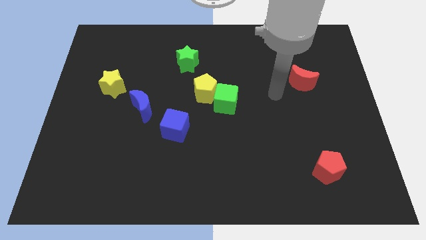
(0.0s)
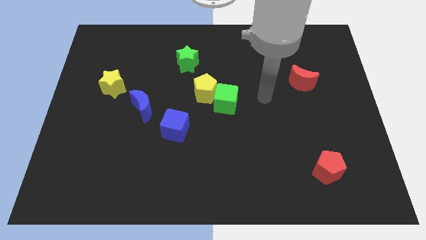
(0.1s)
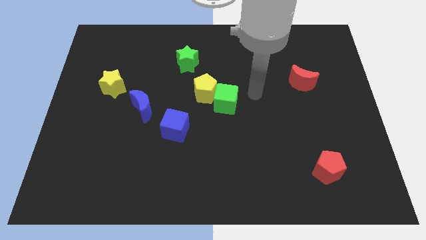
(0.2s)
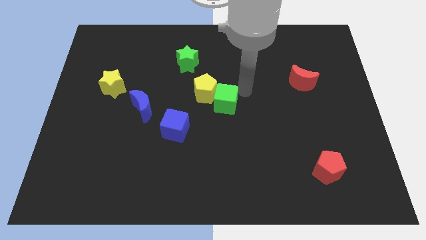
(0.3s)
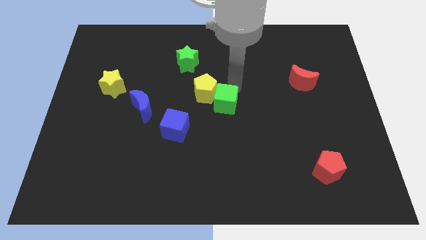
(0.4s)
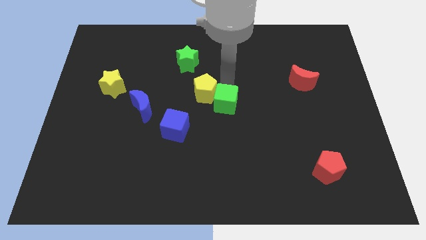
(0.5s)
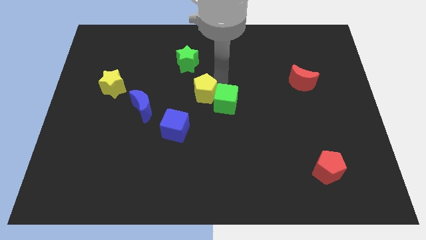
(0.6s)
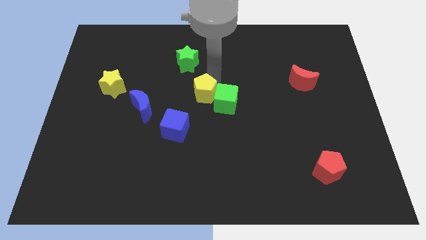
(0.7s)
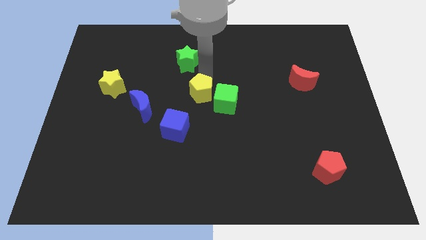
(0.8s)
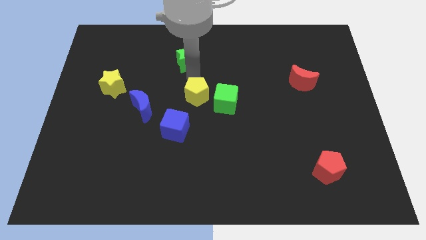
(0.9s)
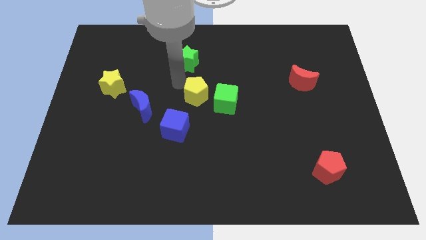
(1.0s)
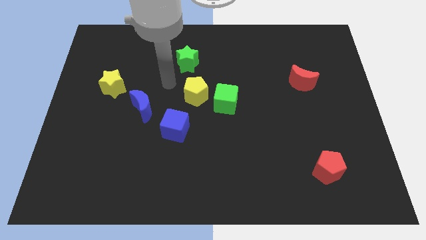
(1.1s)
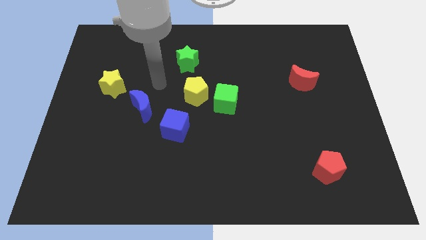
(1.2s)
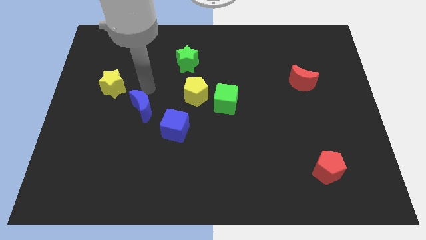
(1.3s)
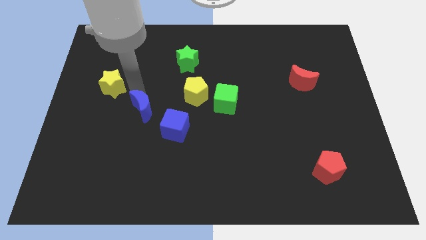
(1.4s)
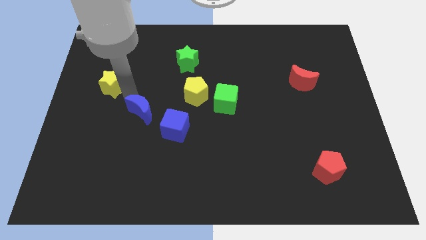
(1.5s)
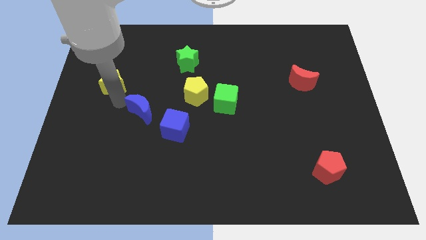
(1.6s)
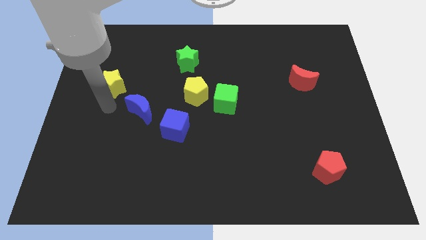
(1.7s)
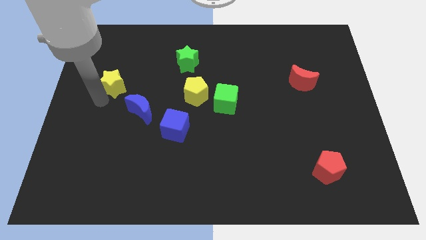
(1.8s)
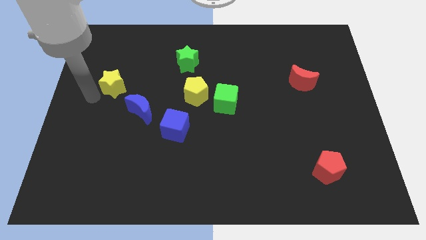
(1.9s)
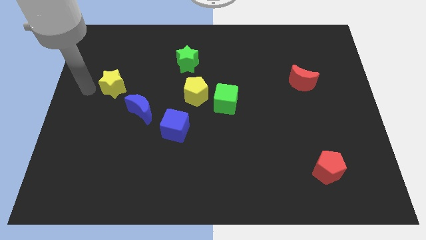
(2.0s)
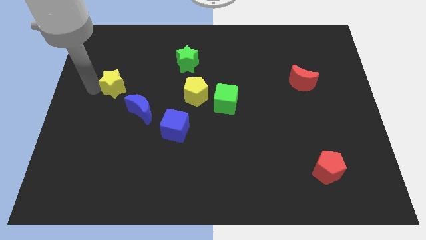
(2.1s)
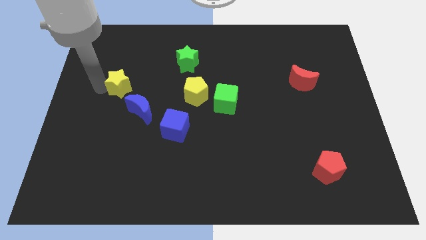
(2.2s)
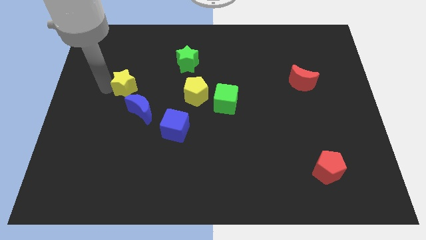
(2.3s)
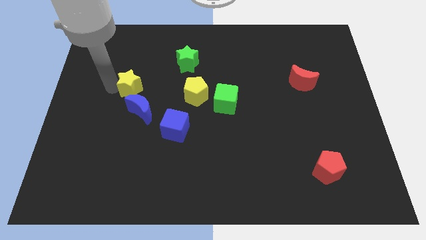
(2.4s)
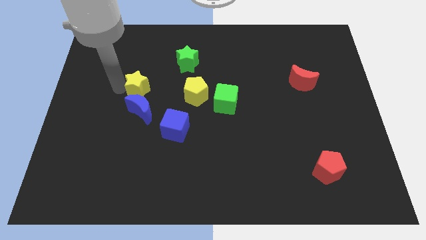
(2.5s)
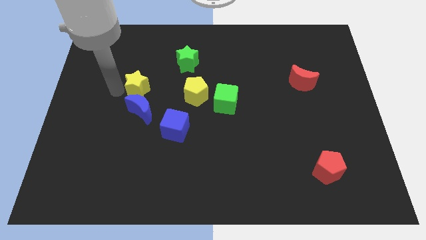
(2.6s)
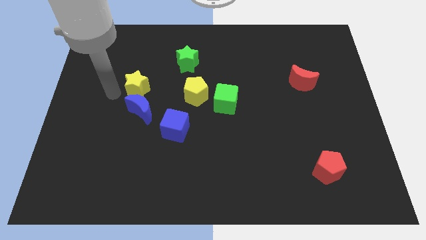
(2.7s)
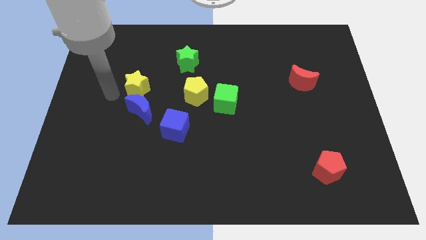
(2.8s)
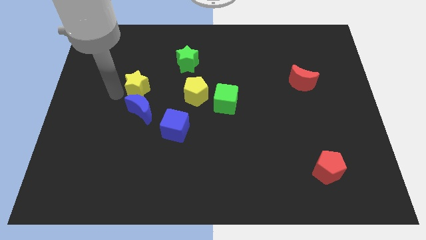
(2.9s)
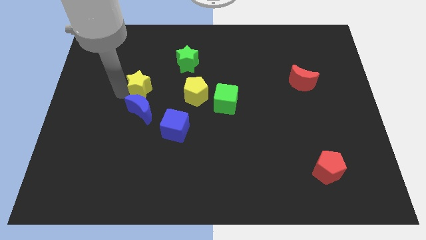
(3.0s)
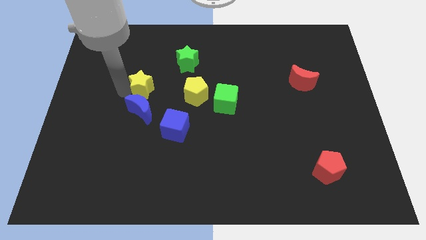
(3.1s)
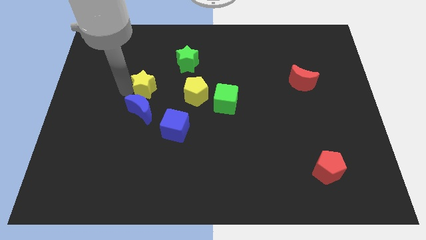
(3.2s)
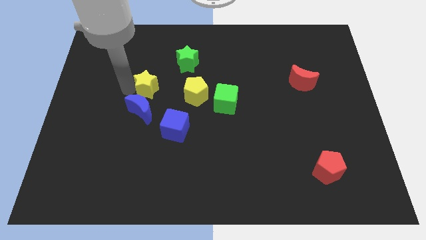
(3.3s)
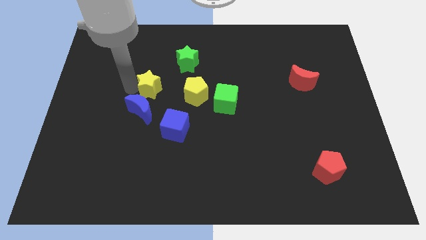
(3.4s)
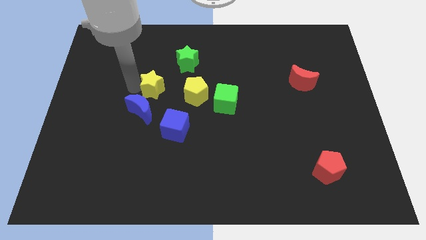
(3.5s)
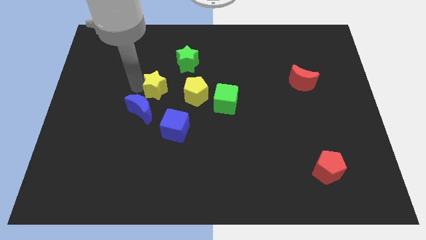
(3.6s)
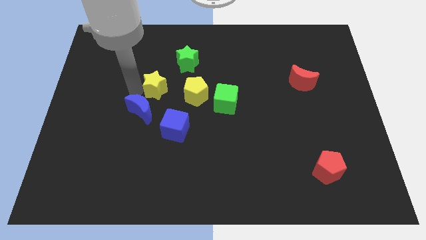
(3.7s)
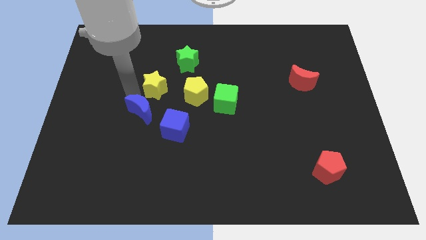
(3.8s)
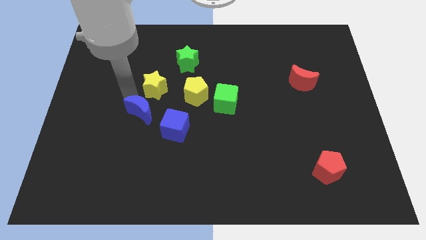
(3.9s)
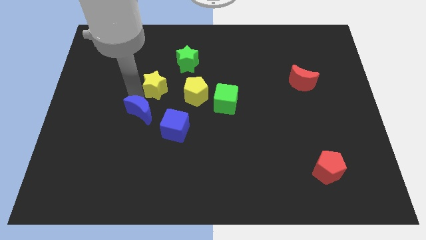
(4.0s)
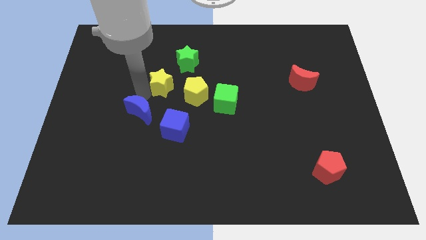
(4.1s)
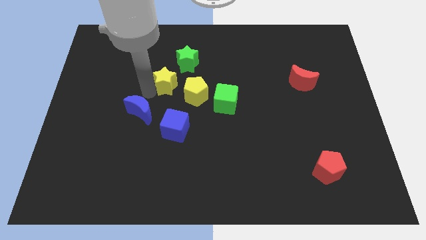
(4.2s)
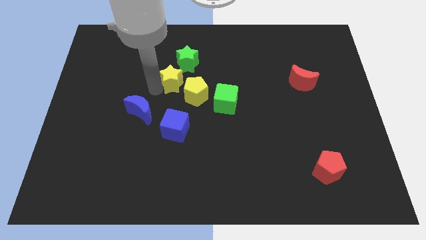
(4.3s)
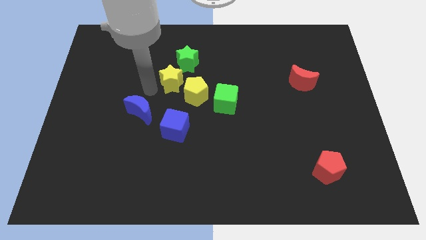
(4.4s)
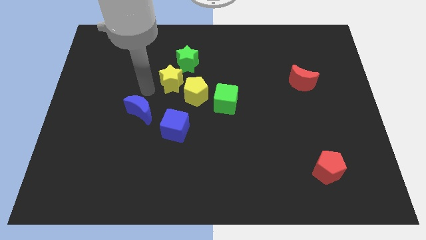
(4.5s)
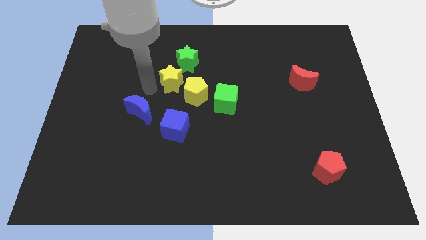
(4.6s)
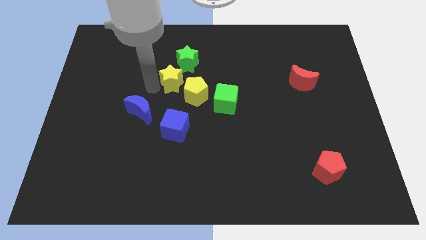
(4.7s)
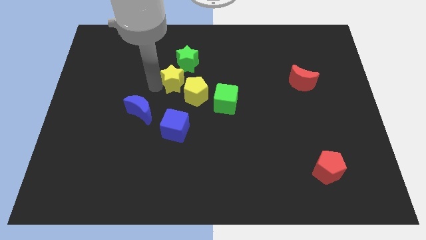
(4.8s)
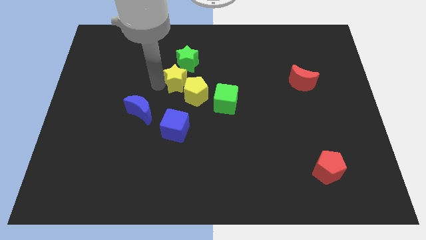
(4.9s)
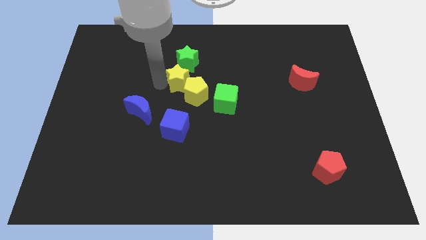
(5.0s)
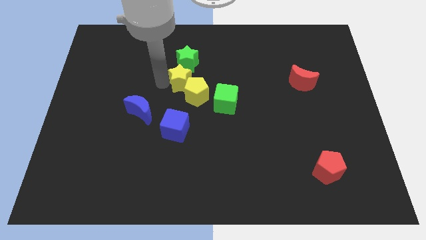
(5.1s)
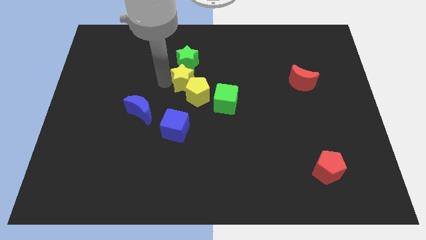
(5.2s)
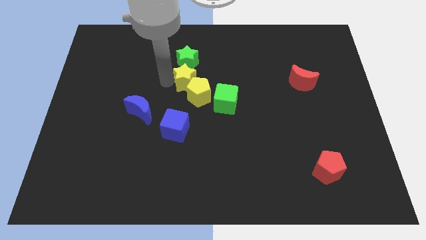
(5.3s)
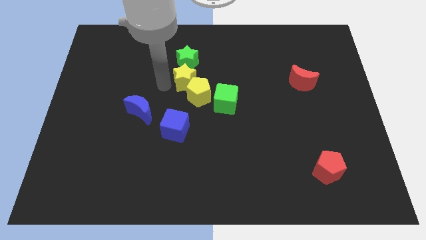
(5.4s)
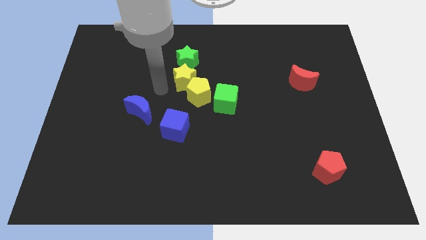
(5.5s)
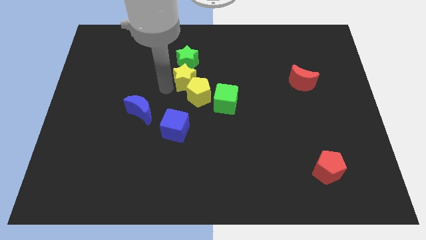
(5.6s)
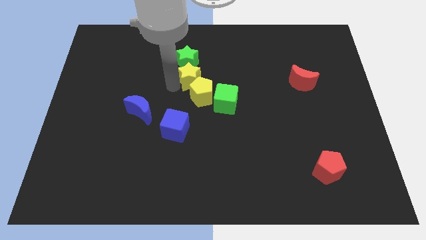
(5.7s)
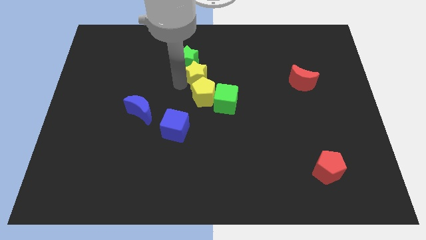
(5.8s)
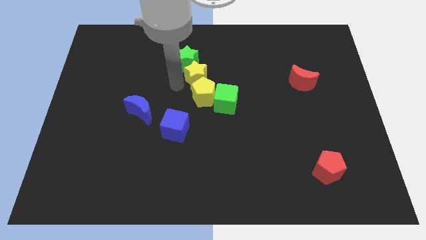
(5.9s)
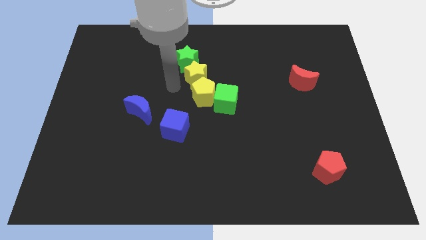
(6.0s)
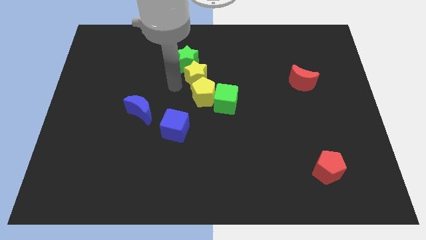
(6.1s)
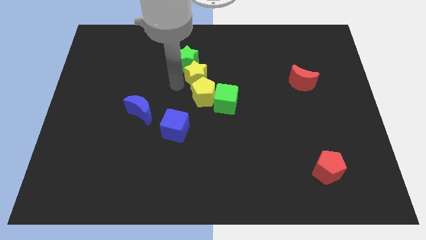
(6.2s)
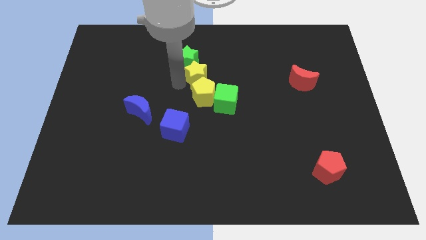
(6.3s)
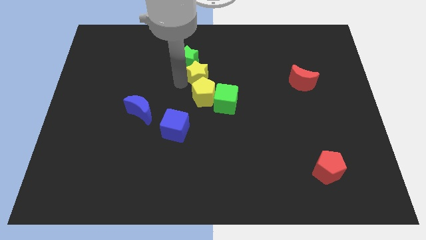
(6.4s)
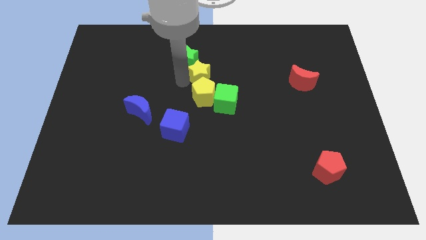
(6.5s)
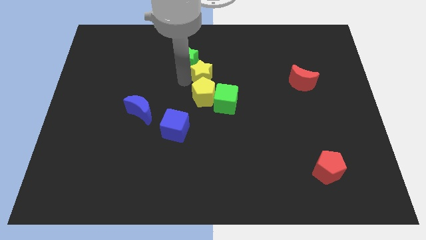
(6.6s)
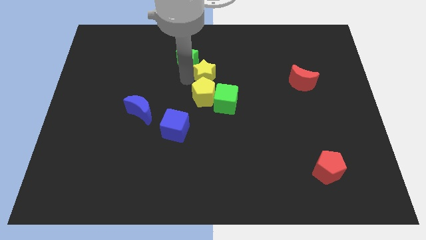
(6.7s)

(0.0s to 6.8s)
put the yellow star above the green cube

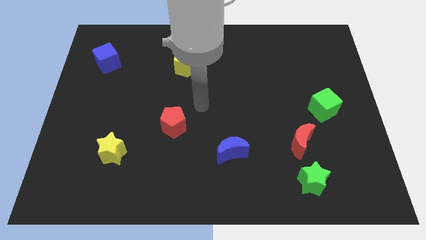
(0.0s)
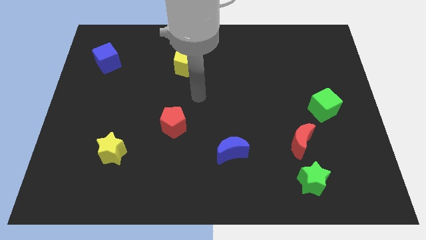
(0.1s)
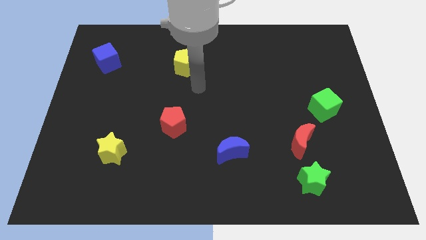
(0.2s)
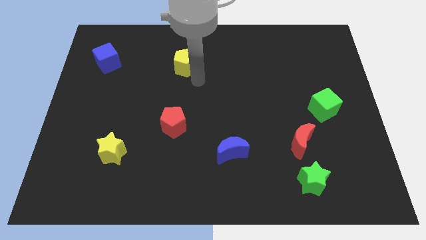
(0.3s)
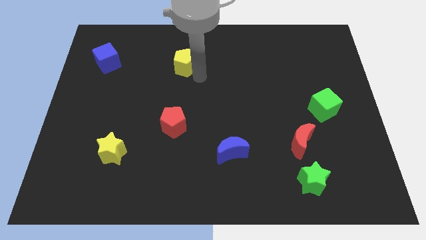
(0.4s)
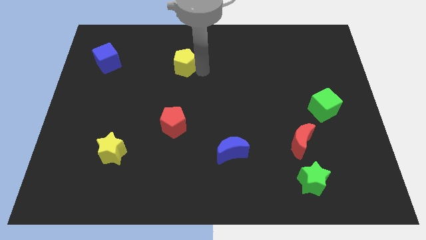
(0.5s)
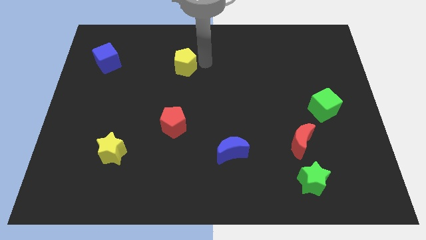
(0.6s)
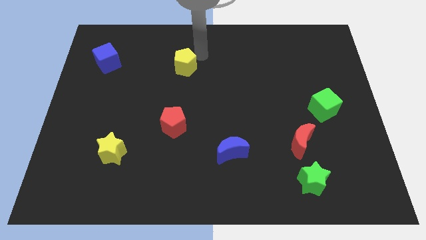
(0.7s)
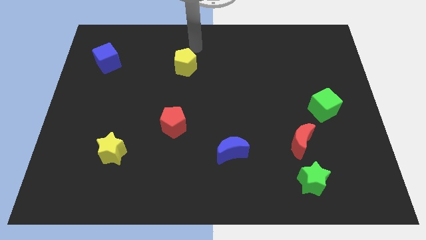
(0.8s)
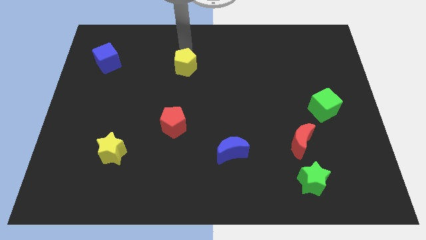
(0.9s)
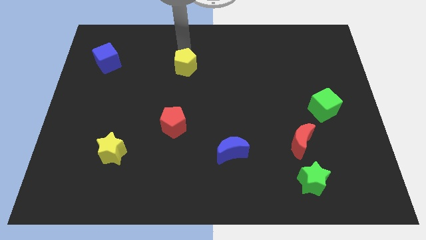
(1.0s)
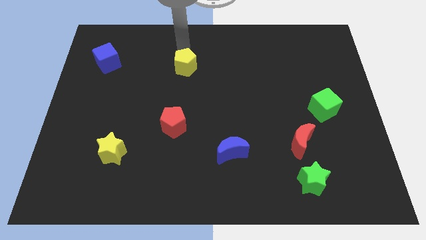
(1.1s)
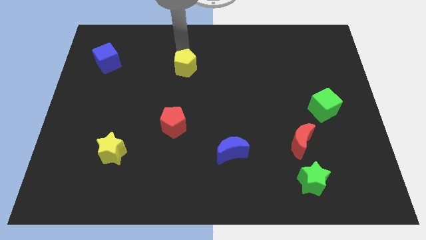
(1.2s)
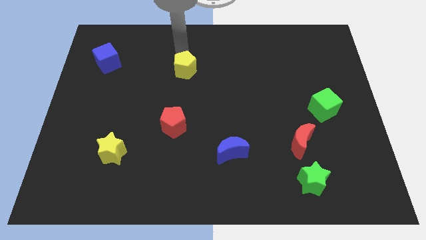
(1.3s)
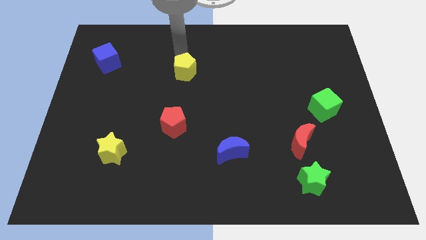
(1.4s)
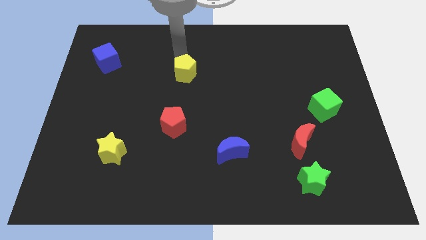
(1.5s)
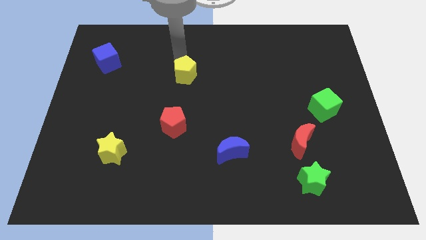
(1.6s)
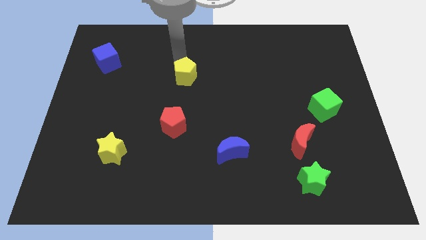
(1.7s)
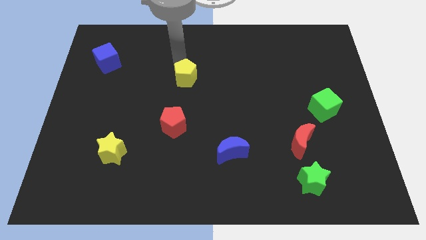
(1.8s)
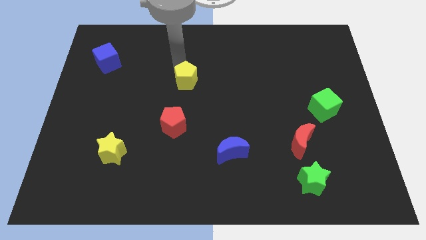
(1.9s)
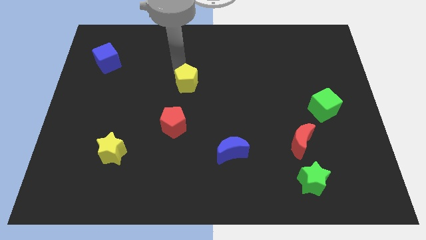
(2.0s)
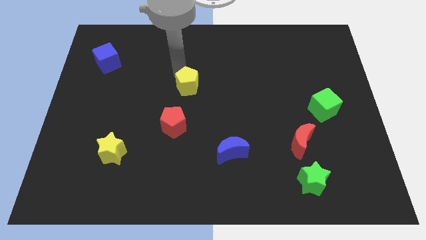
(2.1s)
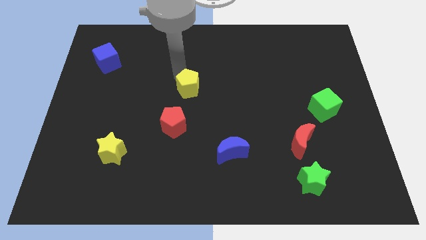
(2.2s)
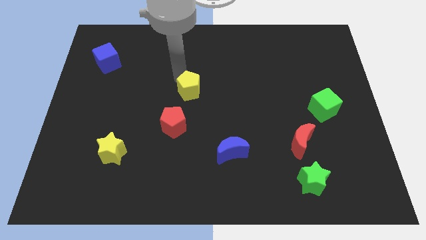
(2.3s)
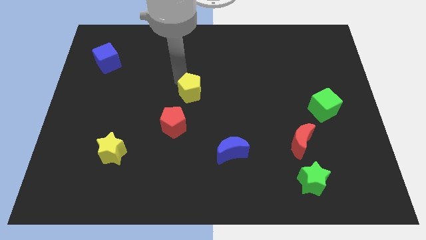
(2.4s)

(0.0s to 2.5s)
put the yellow pentagon diagonally up and to the right of the red pentagon
